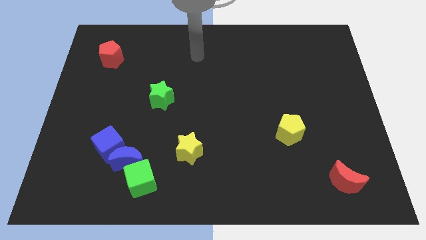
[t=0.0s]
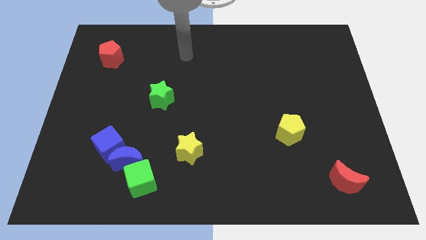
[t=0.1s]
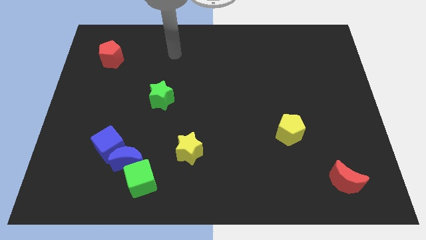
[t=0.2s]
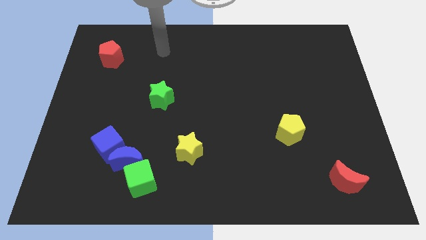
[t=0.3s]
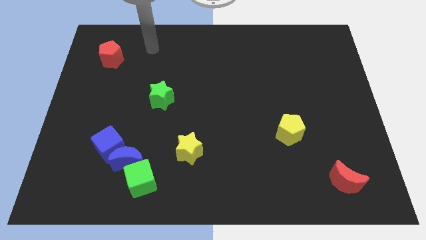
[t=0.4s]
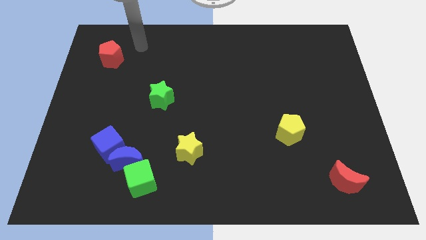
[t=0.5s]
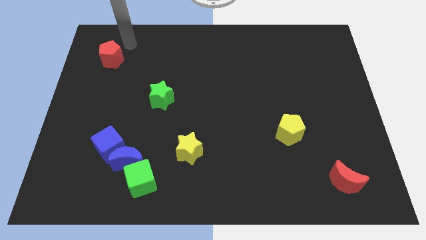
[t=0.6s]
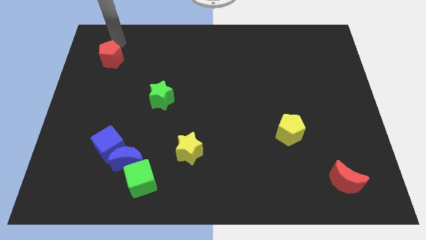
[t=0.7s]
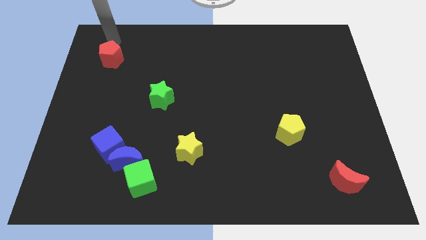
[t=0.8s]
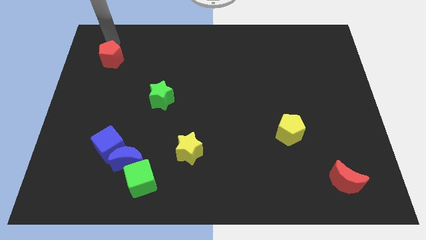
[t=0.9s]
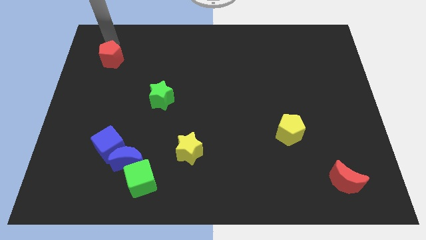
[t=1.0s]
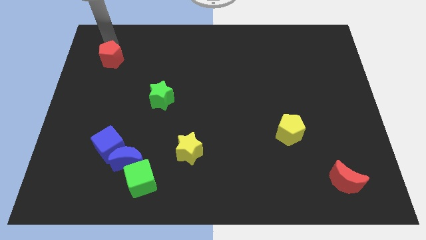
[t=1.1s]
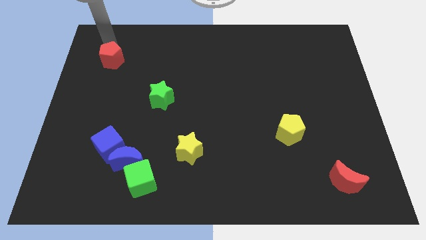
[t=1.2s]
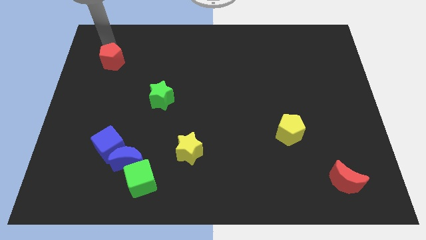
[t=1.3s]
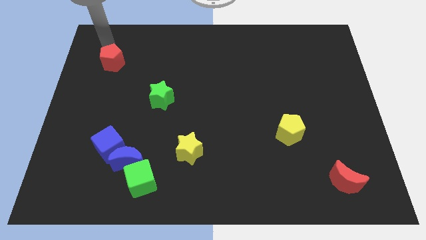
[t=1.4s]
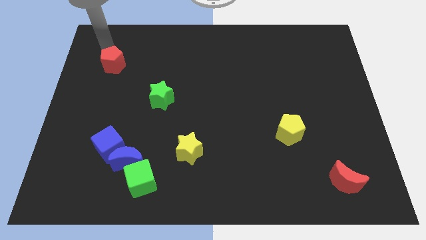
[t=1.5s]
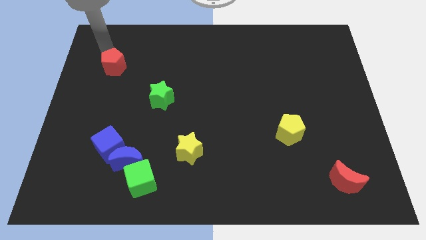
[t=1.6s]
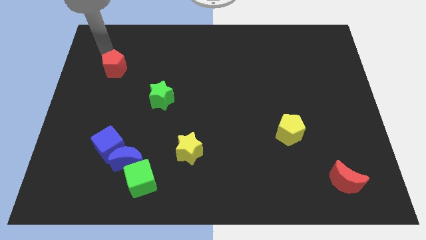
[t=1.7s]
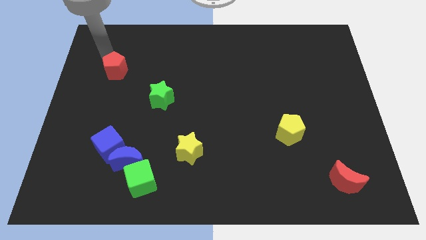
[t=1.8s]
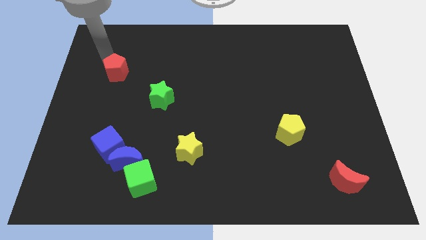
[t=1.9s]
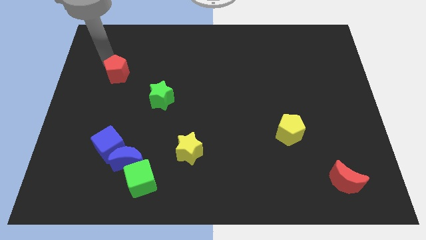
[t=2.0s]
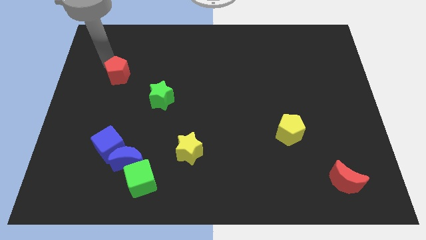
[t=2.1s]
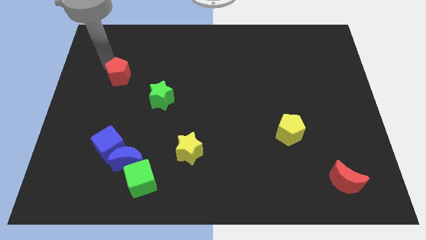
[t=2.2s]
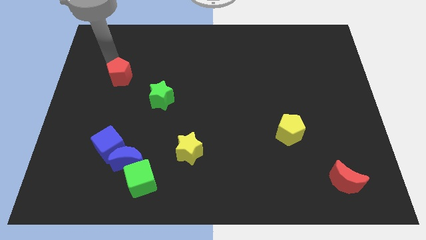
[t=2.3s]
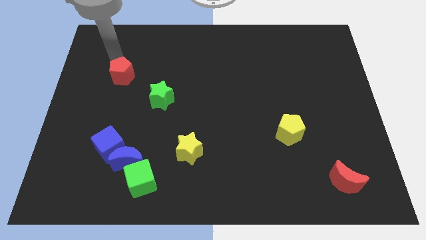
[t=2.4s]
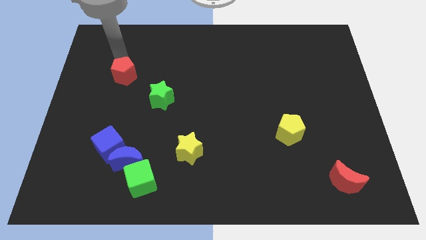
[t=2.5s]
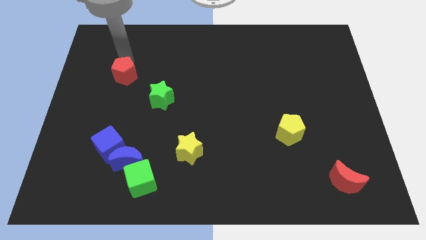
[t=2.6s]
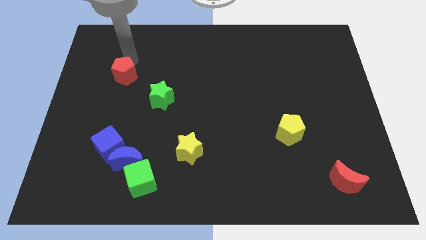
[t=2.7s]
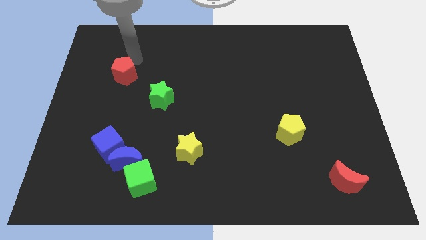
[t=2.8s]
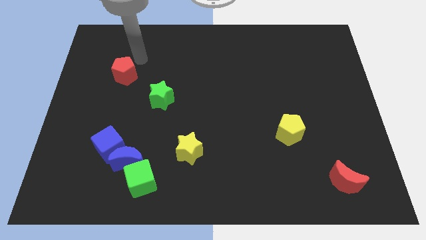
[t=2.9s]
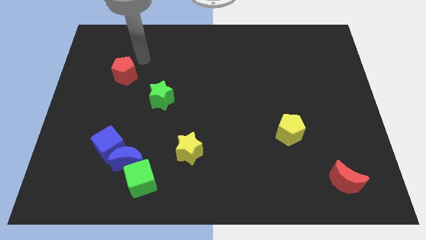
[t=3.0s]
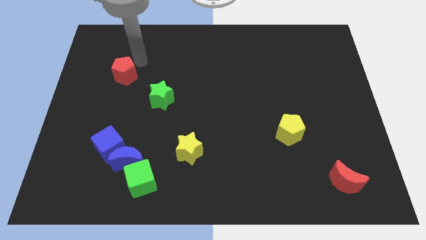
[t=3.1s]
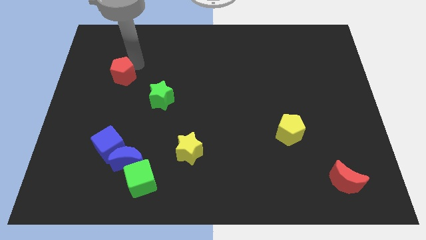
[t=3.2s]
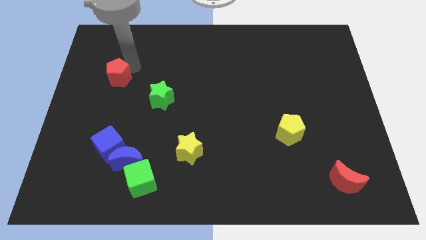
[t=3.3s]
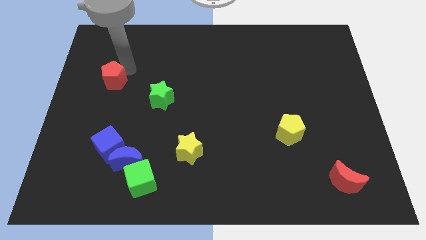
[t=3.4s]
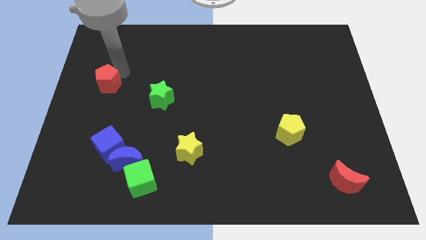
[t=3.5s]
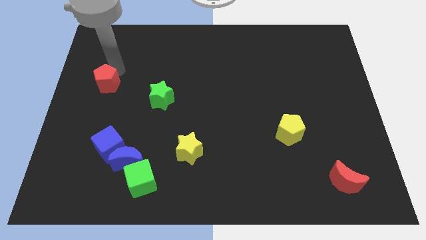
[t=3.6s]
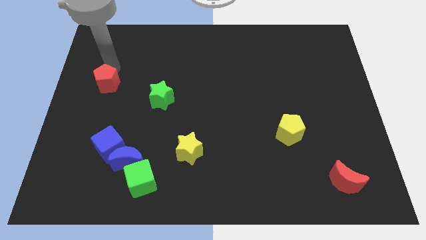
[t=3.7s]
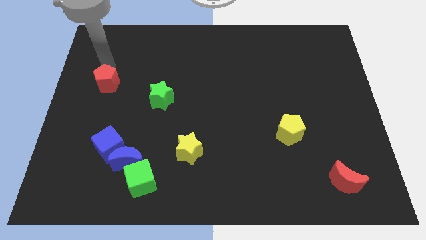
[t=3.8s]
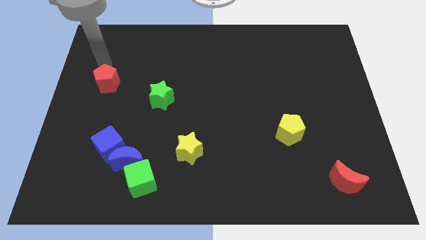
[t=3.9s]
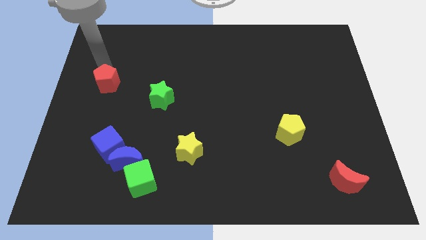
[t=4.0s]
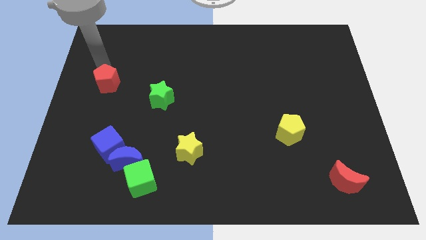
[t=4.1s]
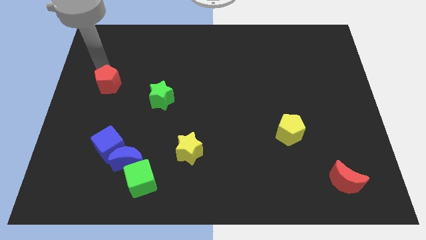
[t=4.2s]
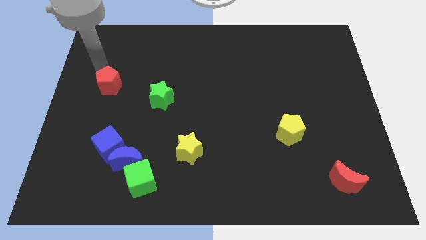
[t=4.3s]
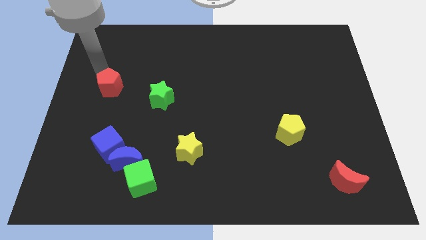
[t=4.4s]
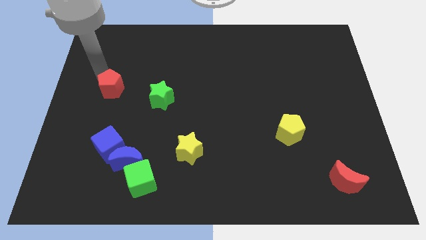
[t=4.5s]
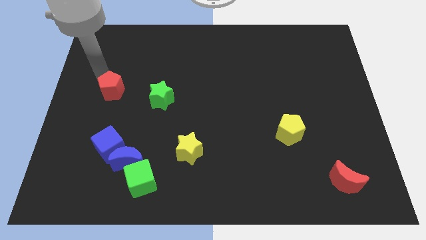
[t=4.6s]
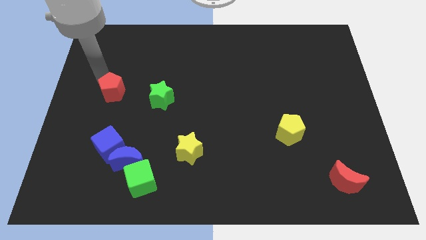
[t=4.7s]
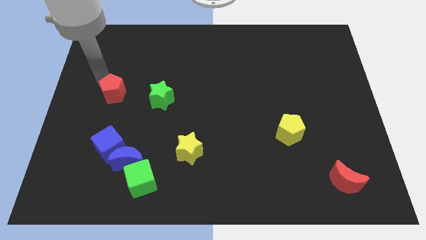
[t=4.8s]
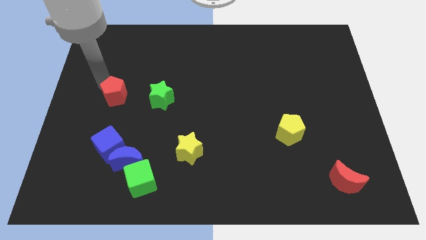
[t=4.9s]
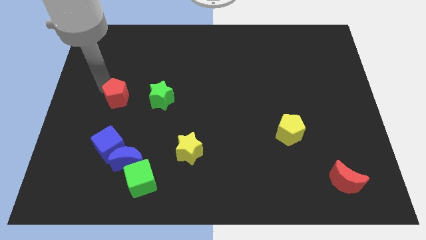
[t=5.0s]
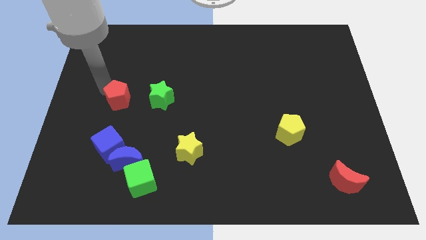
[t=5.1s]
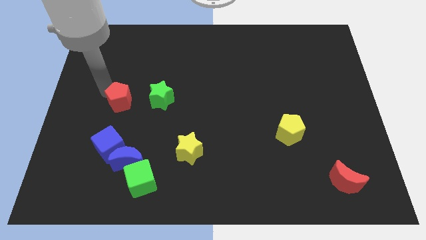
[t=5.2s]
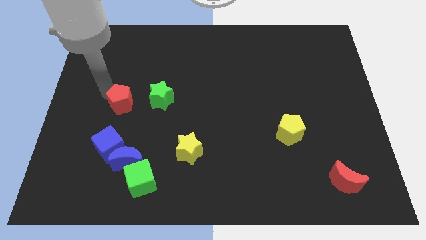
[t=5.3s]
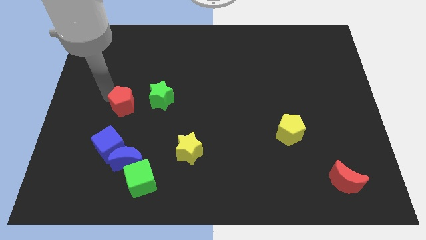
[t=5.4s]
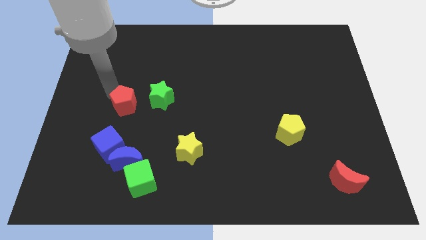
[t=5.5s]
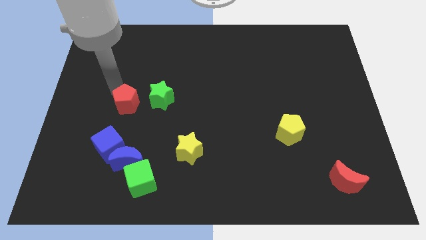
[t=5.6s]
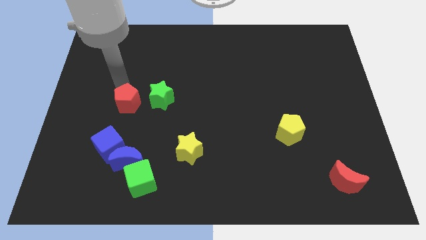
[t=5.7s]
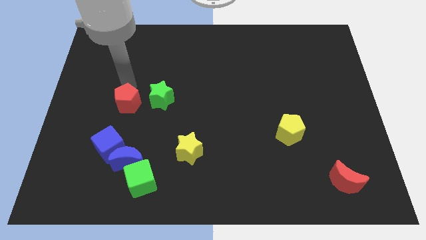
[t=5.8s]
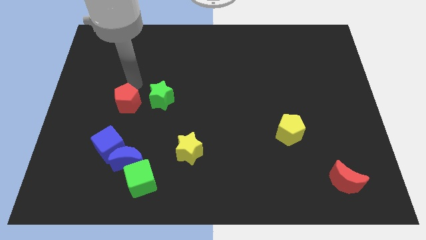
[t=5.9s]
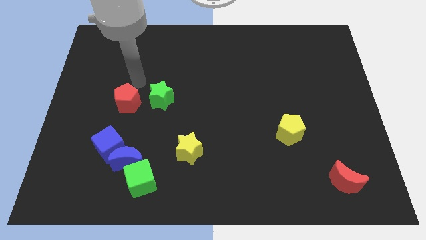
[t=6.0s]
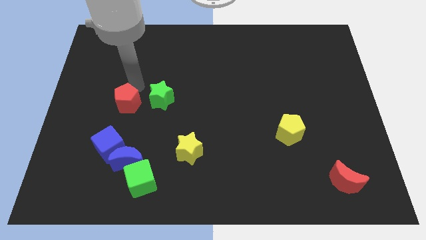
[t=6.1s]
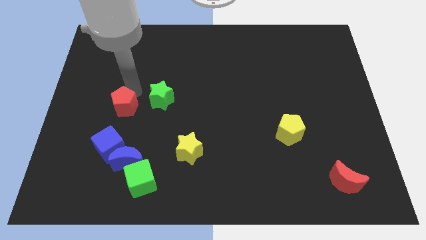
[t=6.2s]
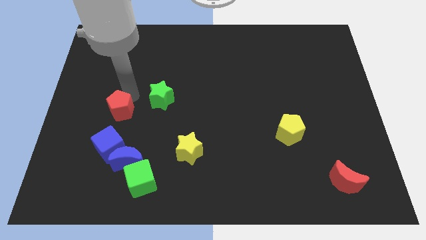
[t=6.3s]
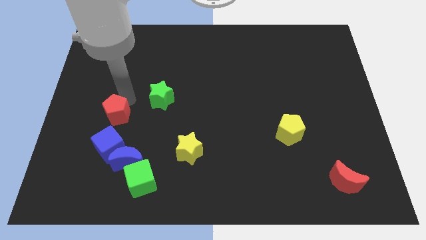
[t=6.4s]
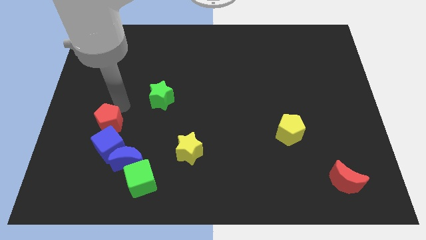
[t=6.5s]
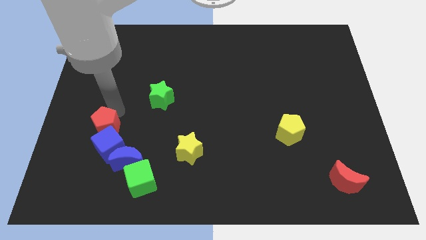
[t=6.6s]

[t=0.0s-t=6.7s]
move the red pentagon next to the blue cube
